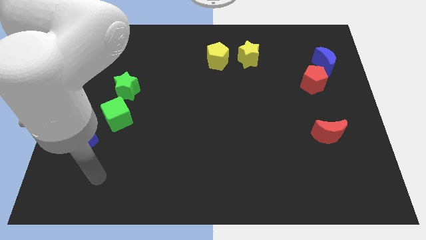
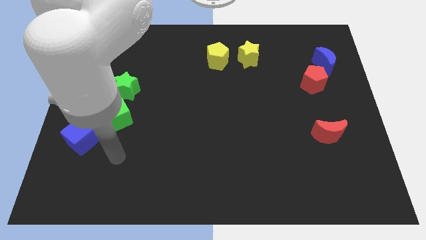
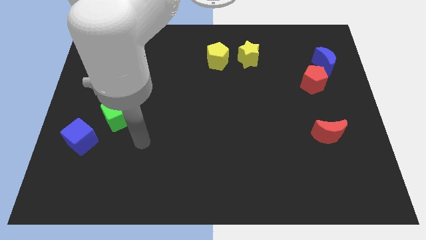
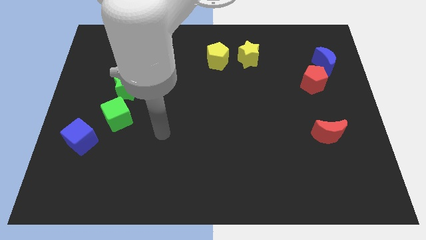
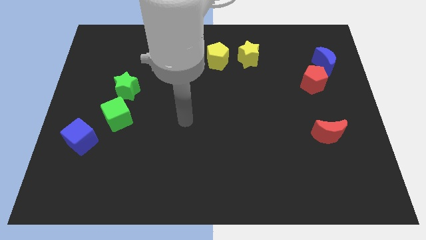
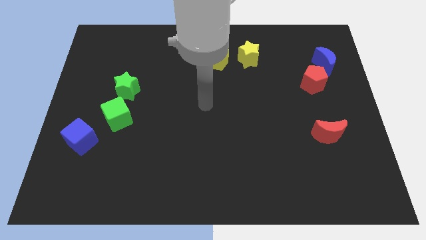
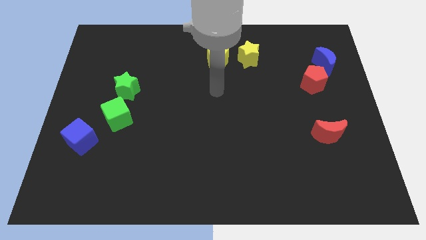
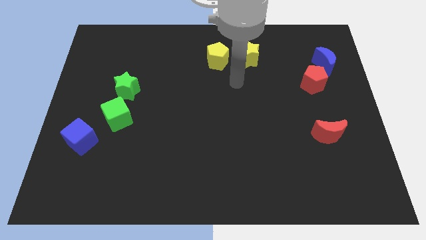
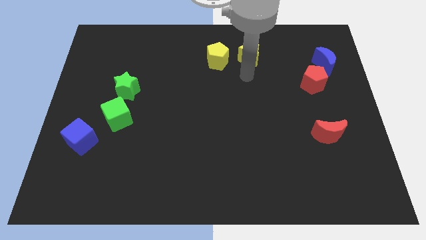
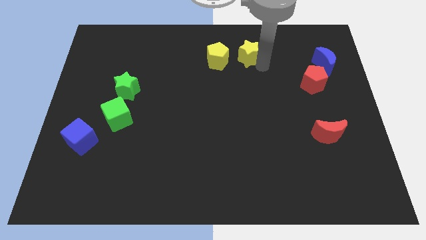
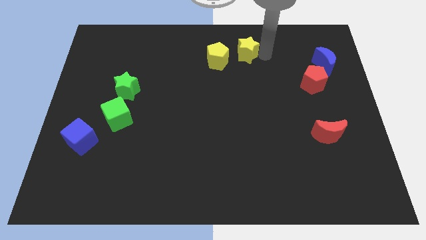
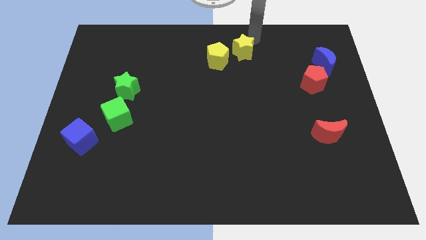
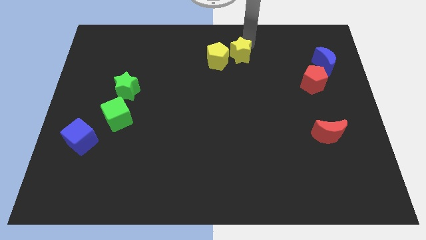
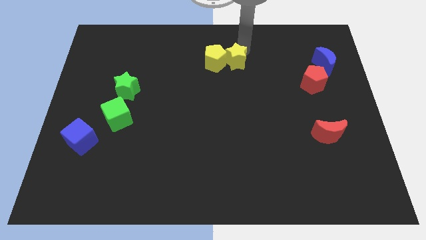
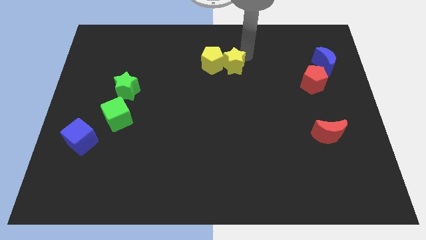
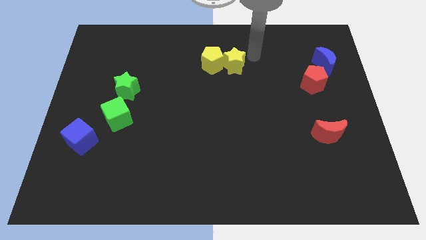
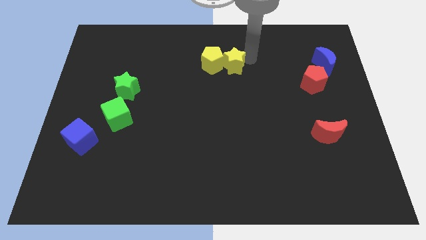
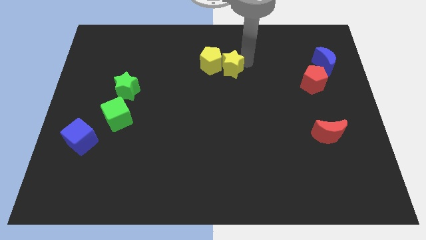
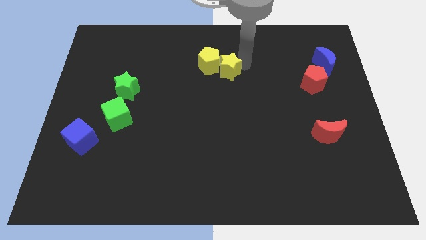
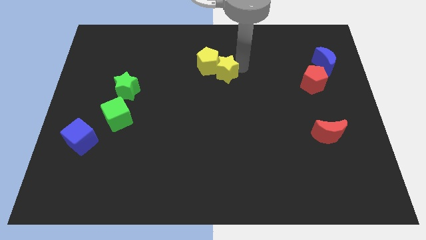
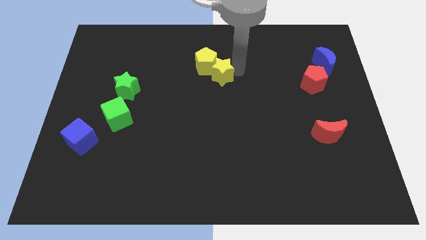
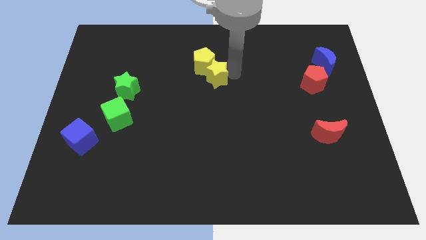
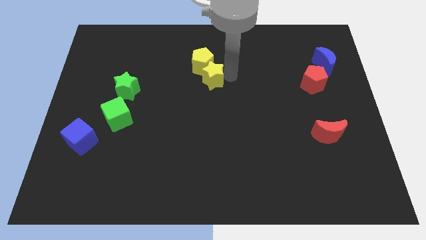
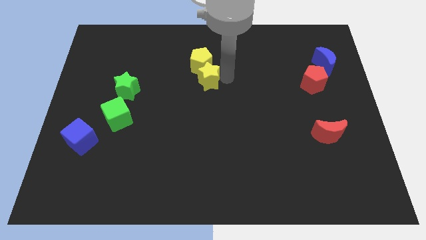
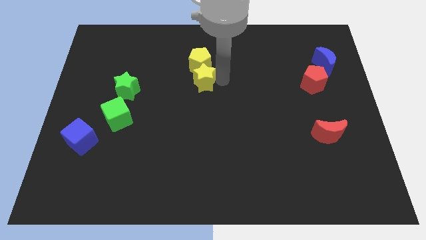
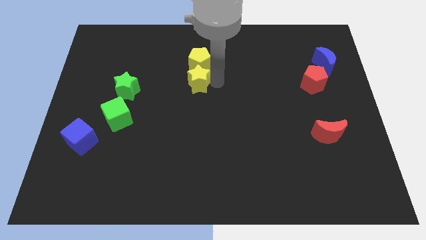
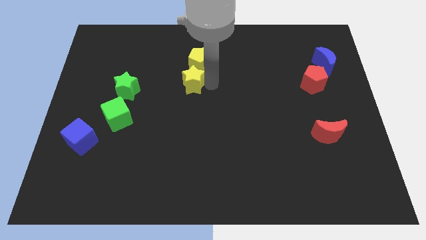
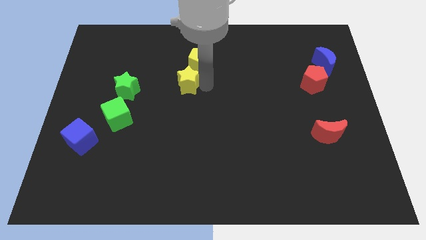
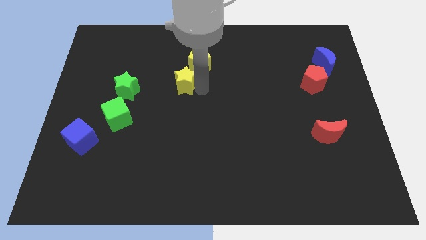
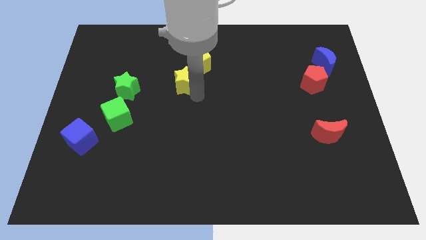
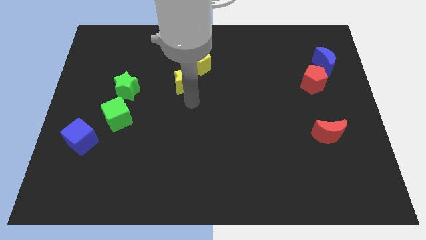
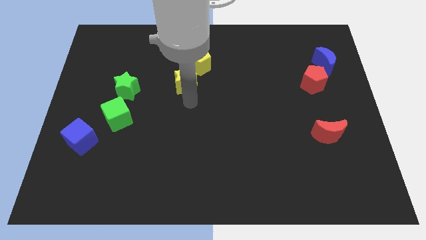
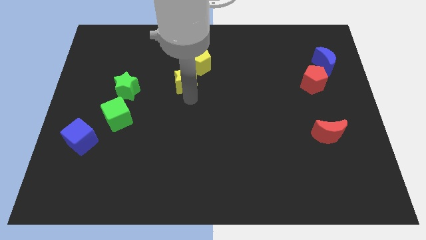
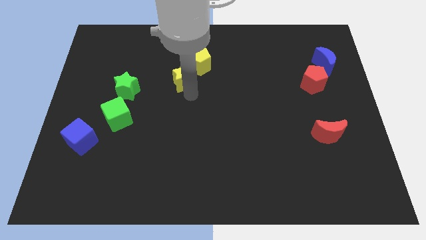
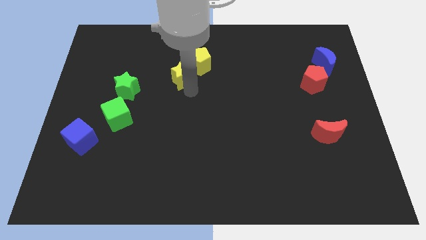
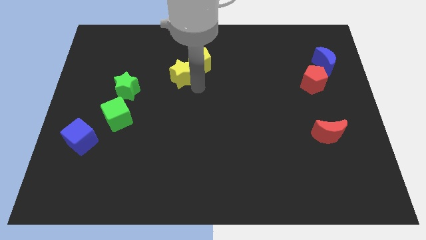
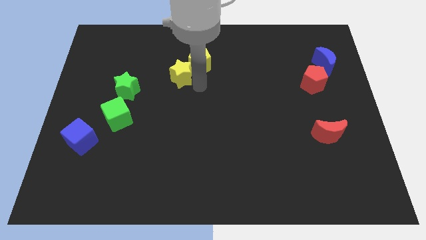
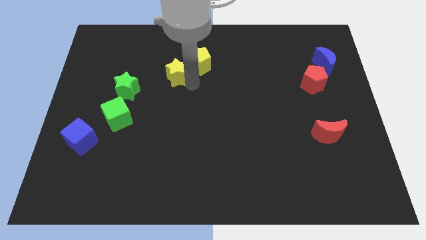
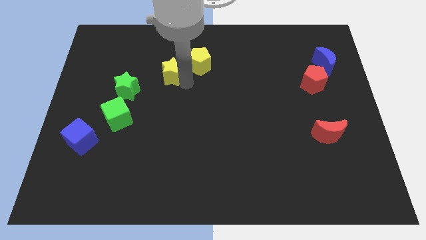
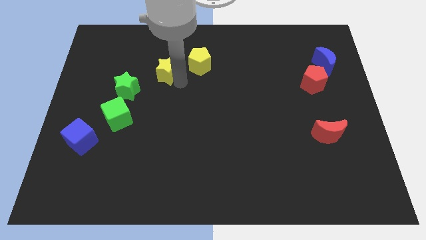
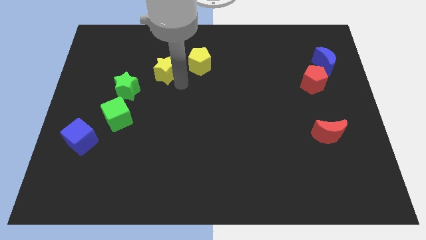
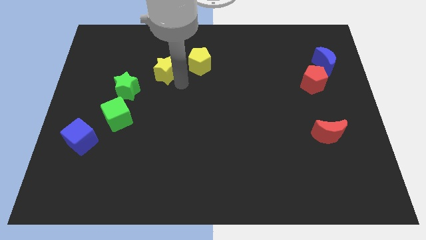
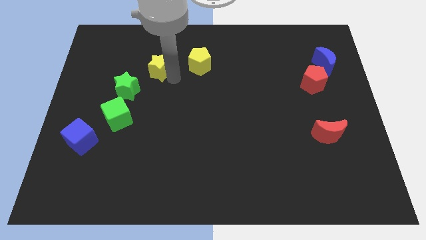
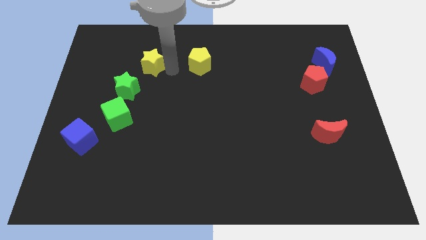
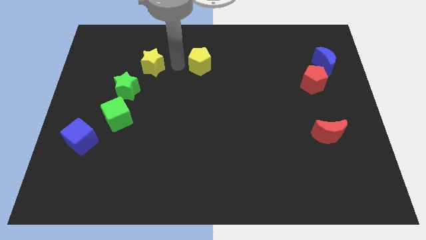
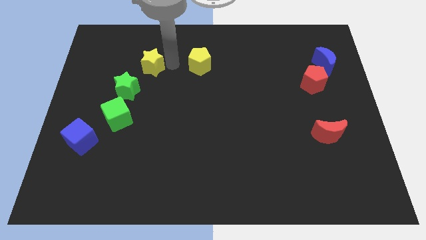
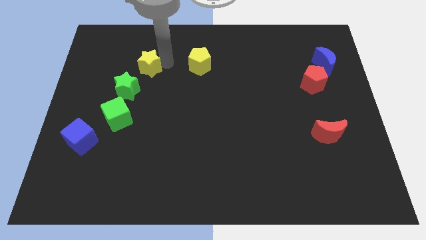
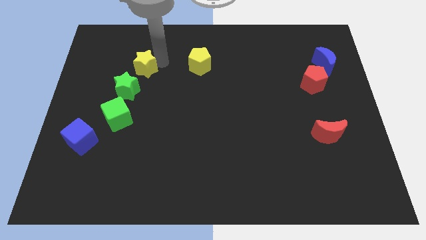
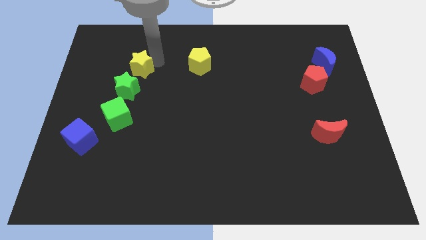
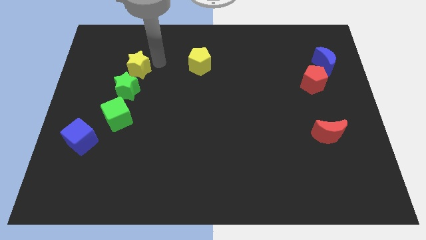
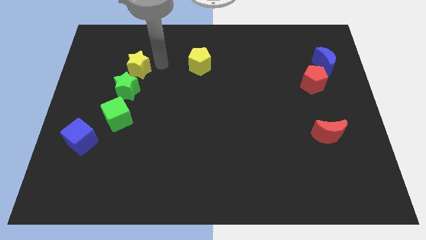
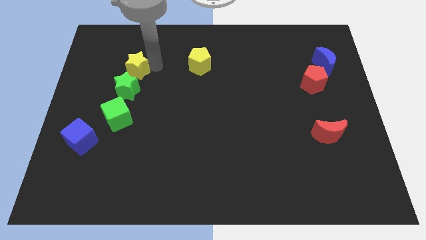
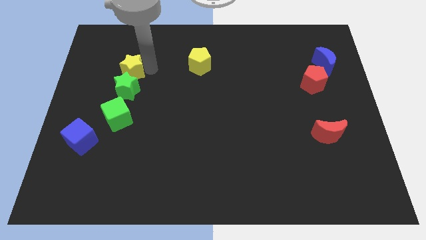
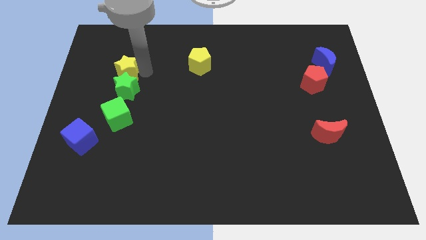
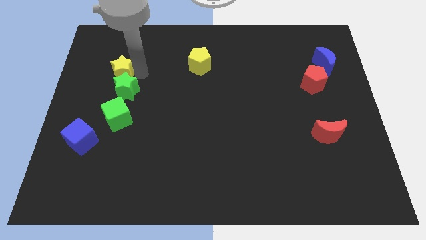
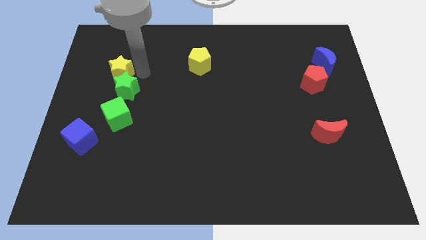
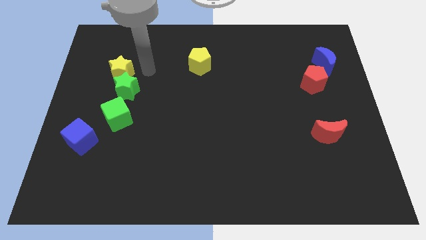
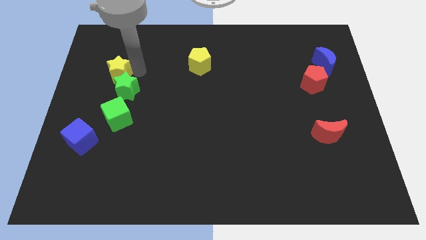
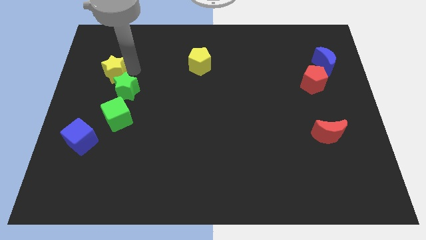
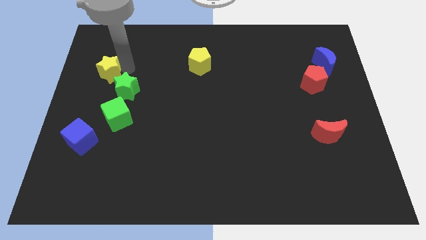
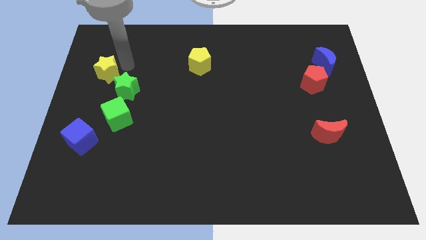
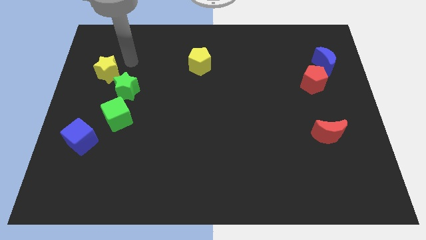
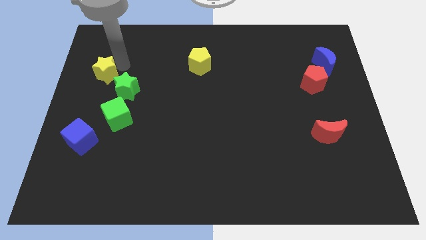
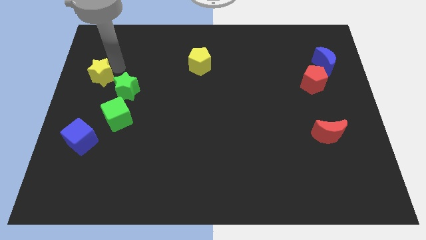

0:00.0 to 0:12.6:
slide the yellow star to the left side

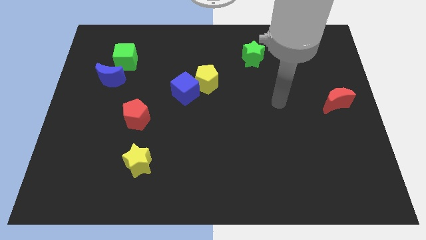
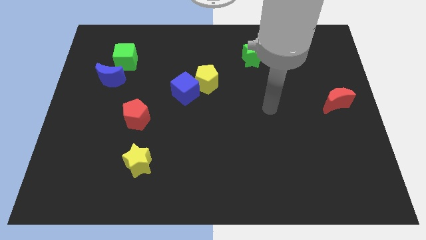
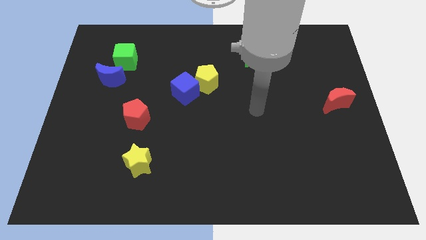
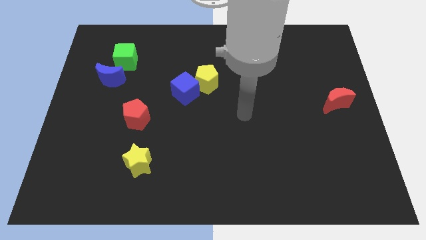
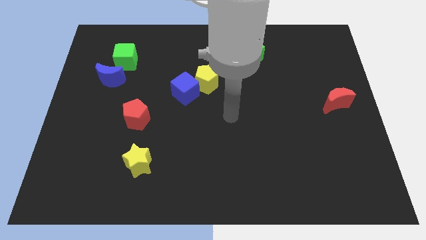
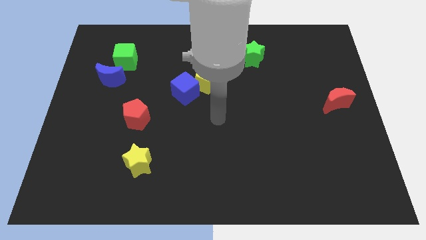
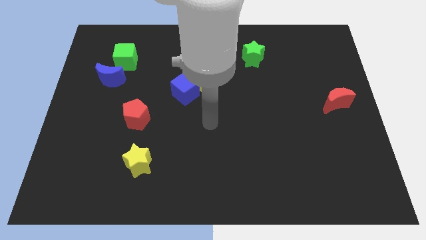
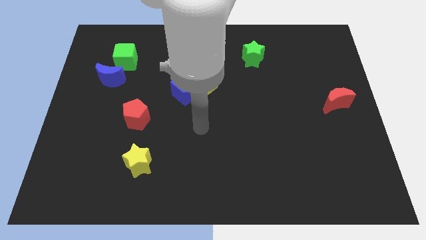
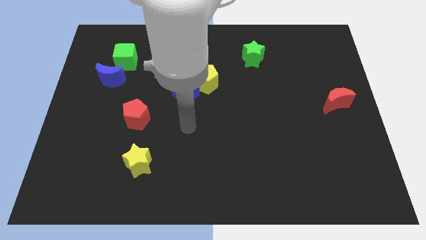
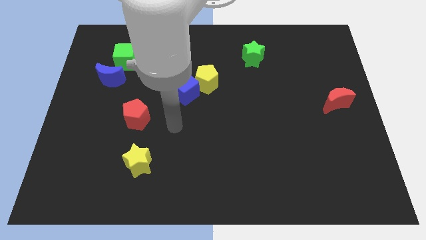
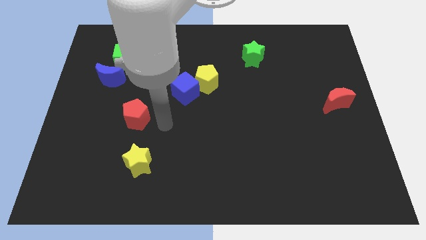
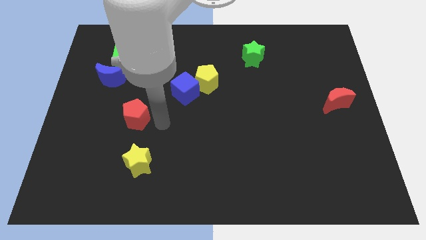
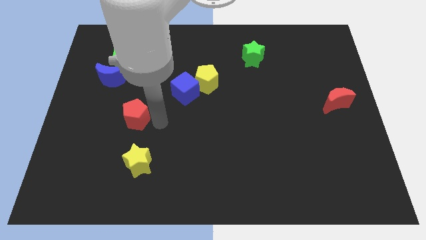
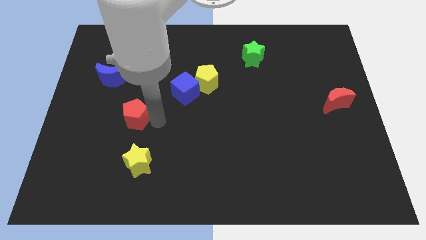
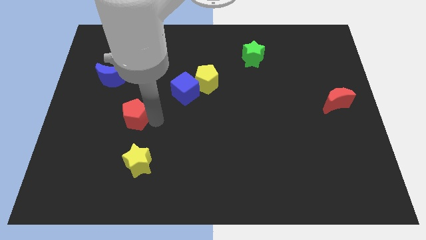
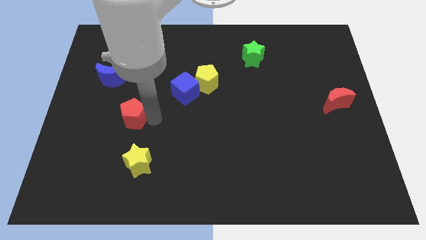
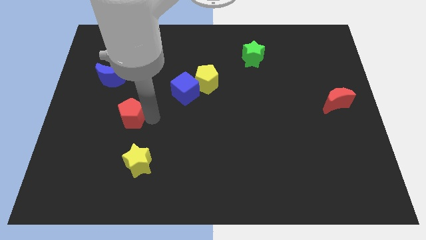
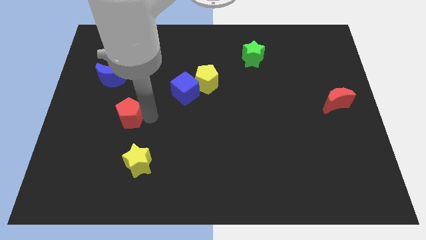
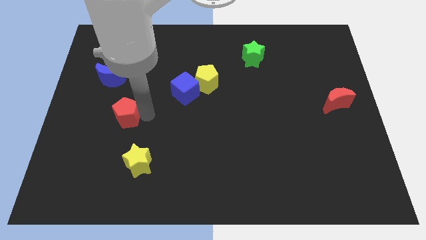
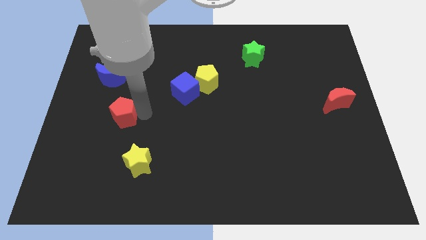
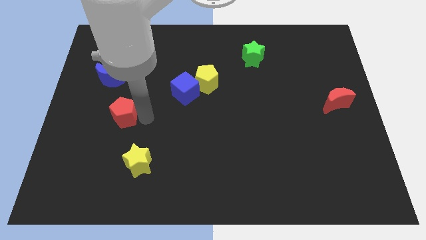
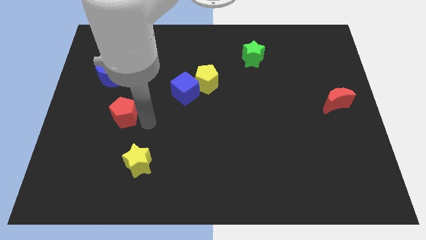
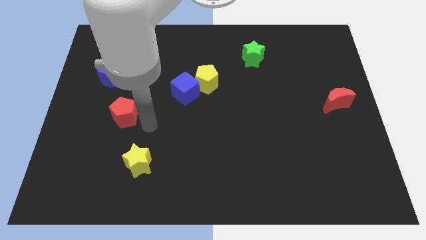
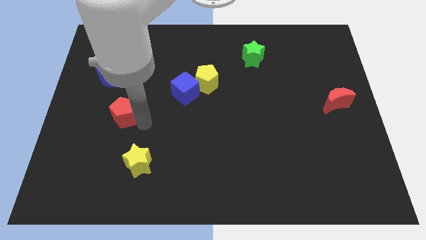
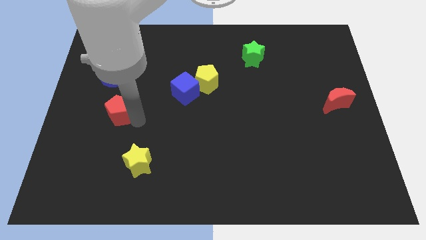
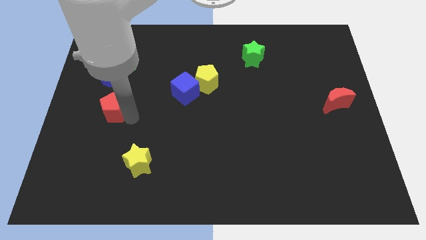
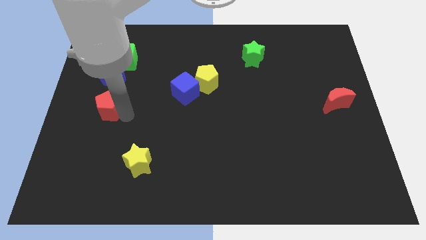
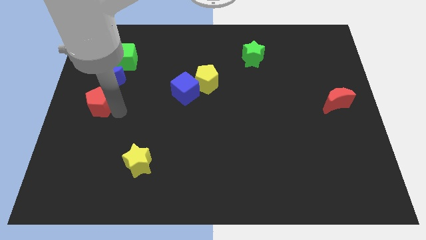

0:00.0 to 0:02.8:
move the red pentagon to the center left
